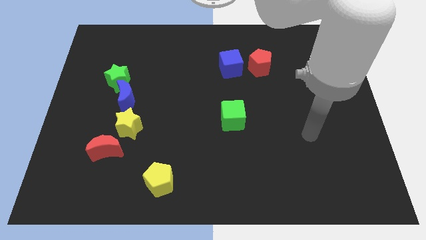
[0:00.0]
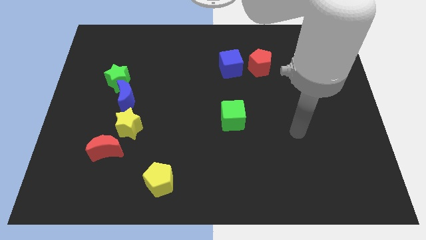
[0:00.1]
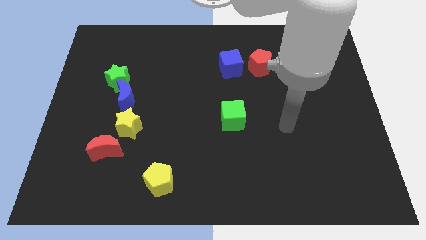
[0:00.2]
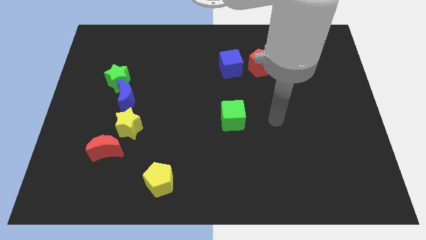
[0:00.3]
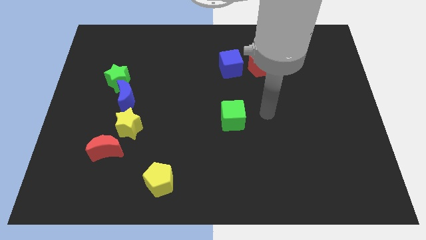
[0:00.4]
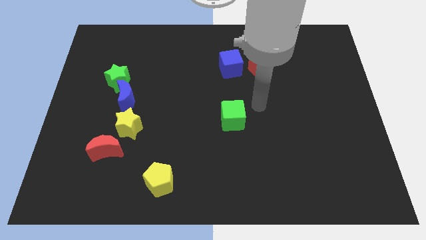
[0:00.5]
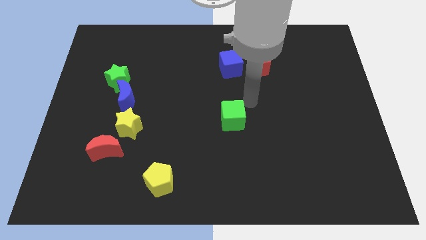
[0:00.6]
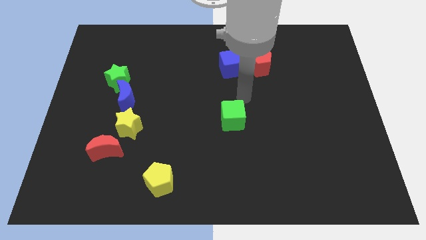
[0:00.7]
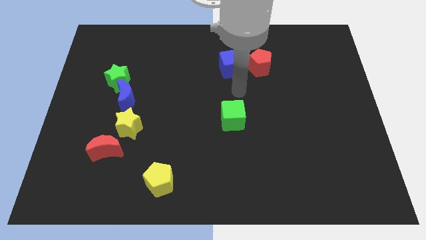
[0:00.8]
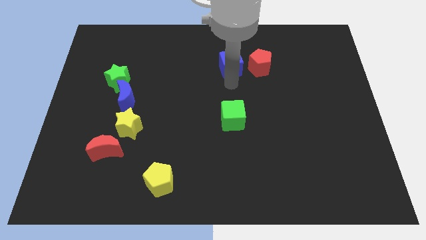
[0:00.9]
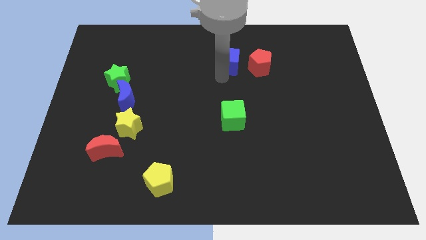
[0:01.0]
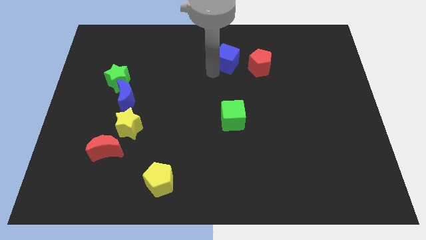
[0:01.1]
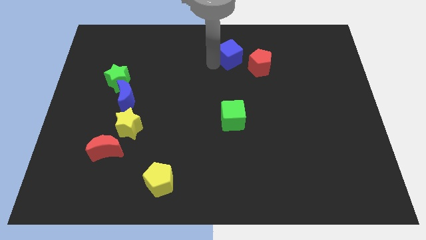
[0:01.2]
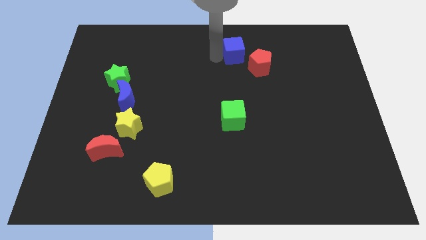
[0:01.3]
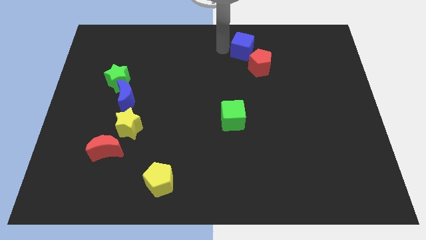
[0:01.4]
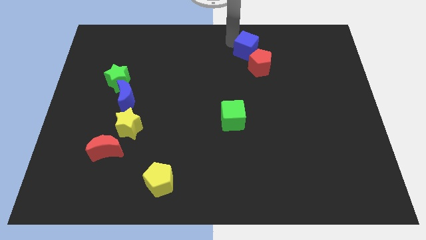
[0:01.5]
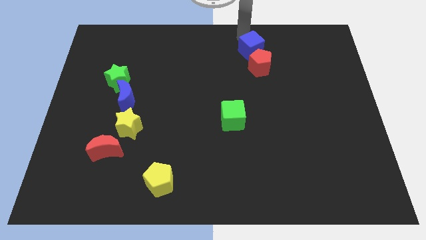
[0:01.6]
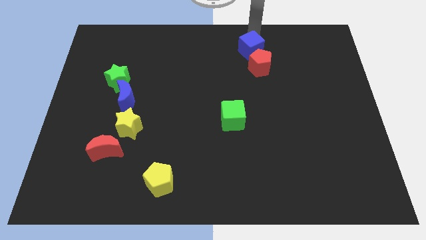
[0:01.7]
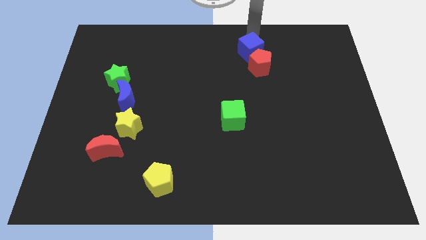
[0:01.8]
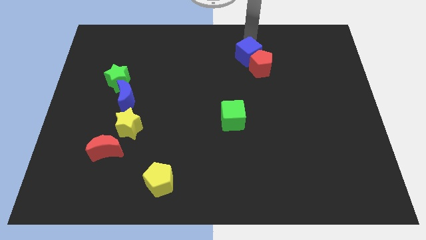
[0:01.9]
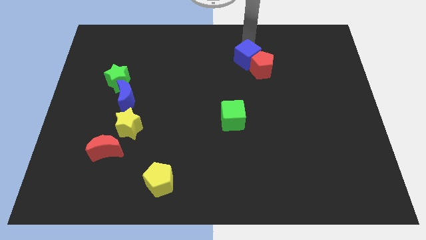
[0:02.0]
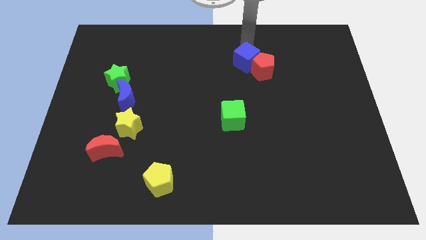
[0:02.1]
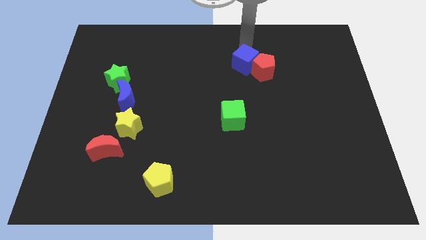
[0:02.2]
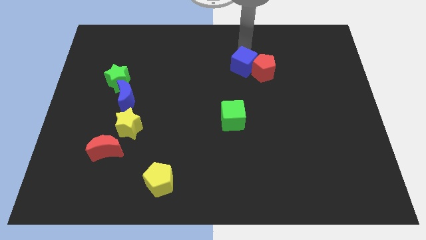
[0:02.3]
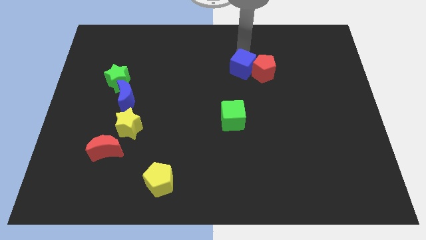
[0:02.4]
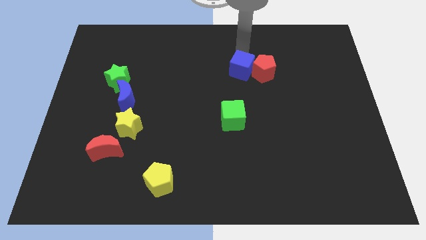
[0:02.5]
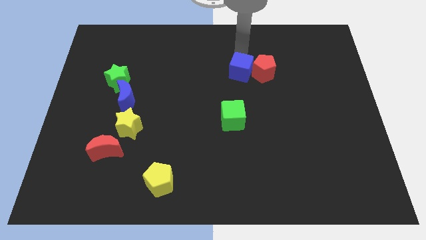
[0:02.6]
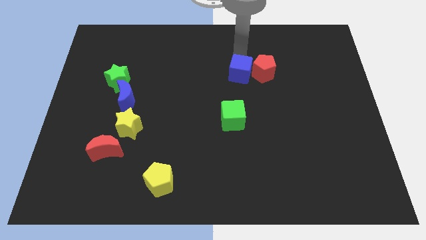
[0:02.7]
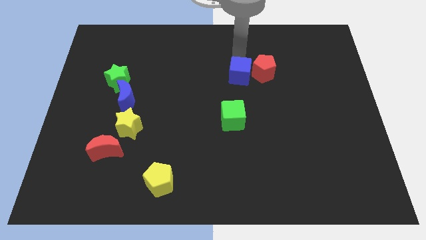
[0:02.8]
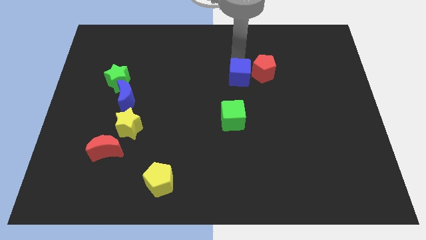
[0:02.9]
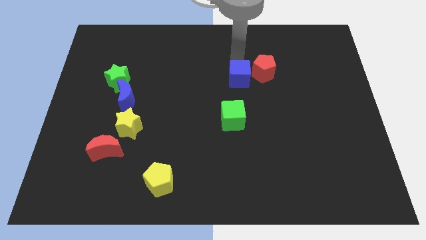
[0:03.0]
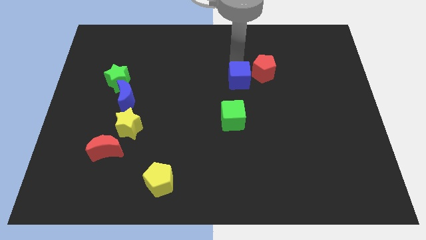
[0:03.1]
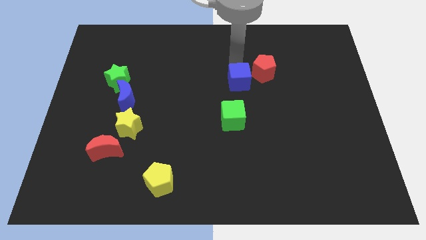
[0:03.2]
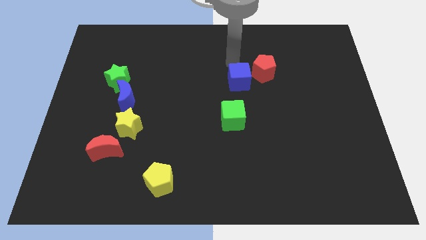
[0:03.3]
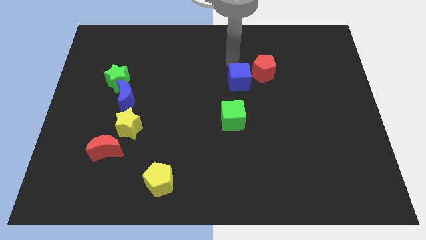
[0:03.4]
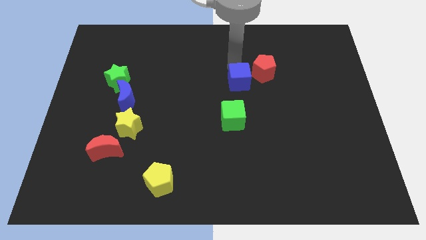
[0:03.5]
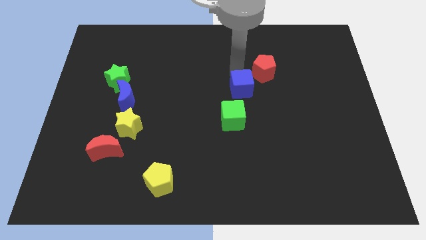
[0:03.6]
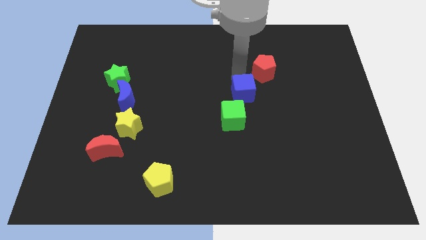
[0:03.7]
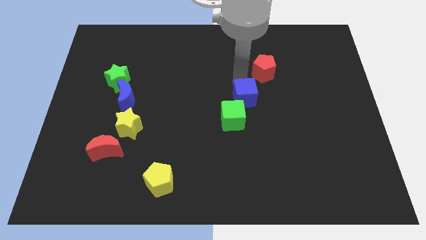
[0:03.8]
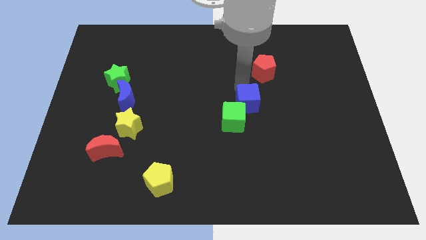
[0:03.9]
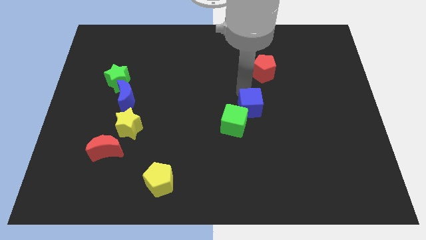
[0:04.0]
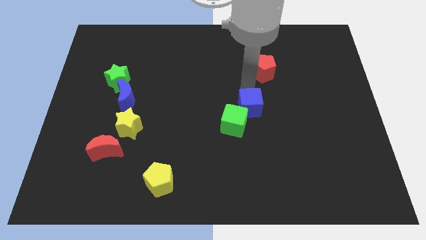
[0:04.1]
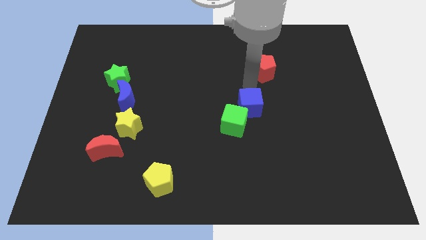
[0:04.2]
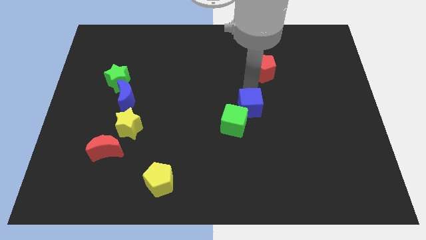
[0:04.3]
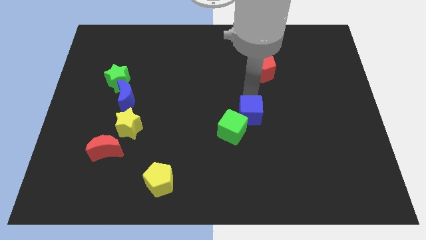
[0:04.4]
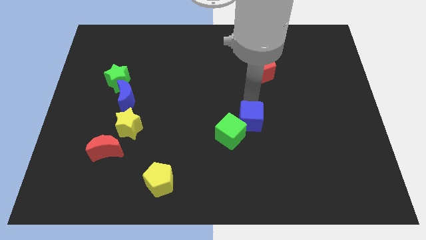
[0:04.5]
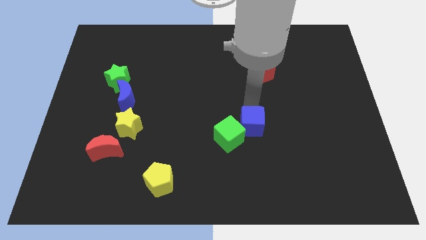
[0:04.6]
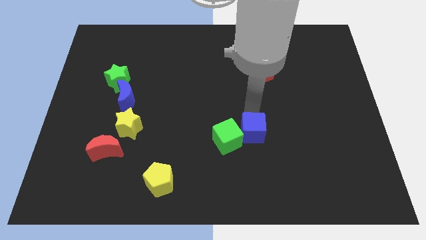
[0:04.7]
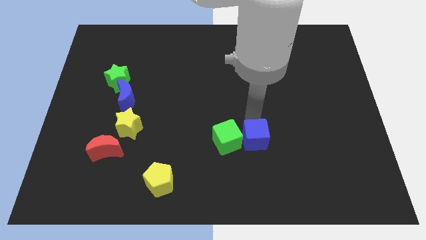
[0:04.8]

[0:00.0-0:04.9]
push the blue cube downwards

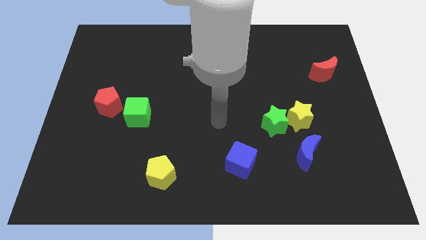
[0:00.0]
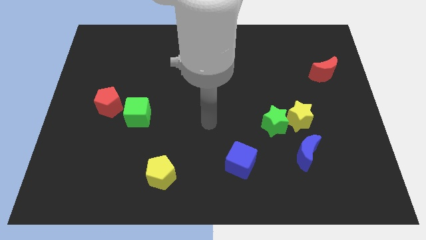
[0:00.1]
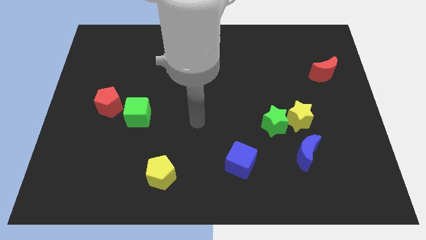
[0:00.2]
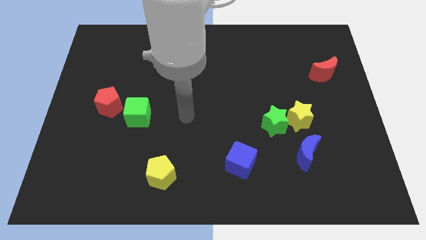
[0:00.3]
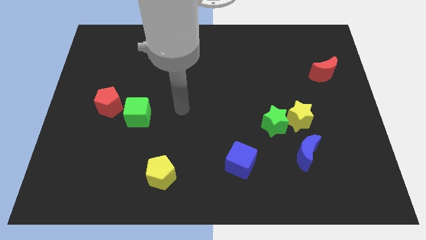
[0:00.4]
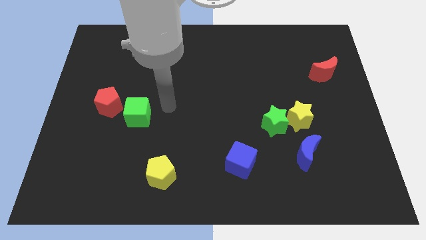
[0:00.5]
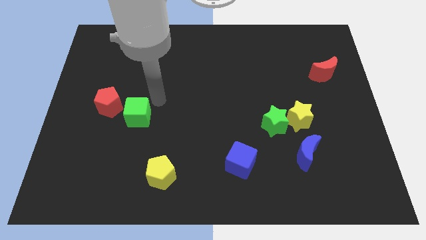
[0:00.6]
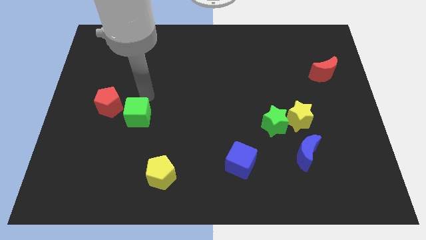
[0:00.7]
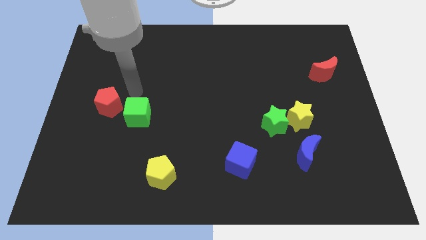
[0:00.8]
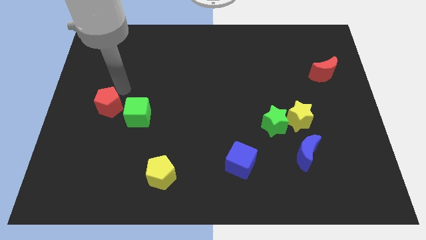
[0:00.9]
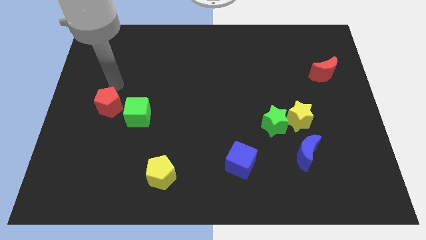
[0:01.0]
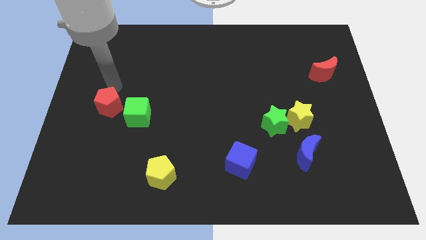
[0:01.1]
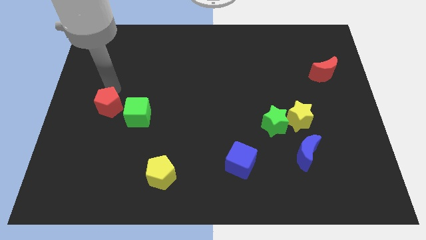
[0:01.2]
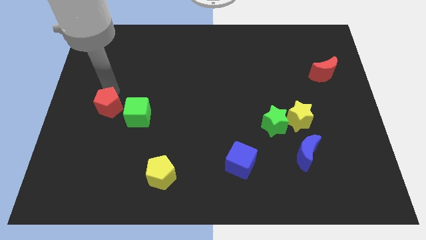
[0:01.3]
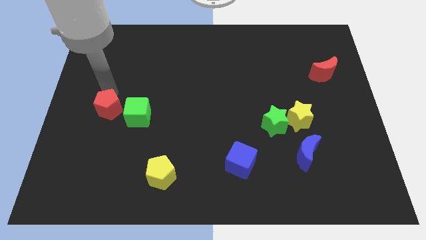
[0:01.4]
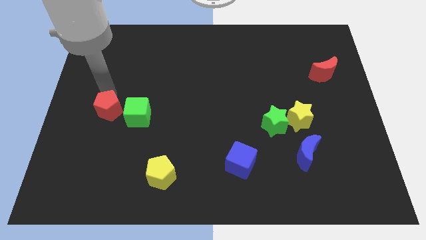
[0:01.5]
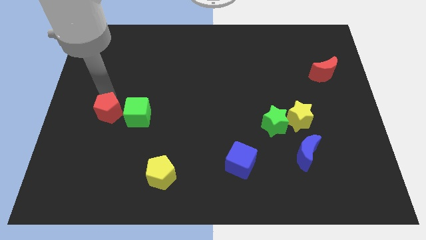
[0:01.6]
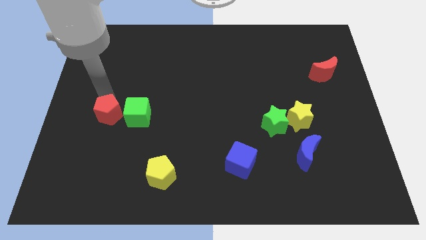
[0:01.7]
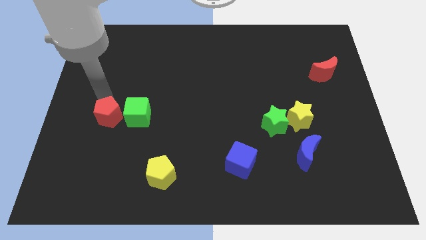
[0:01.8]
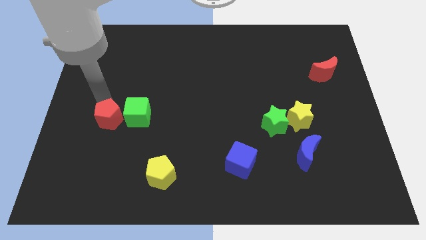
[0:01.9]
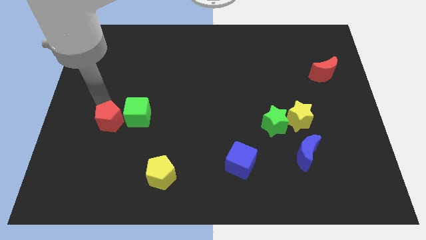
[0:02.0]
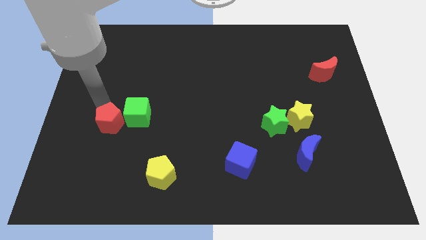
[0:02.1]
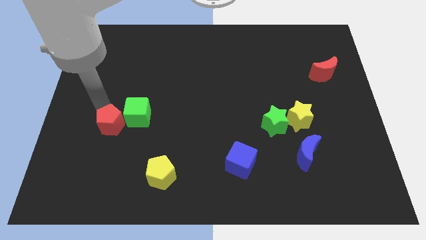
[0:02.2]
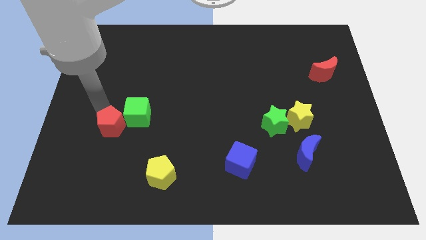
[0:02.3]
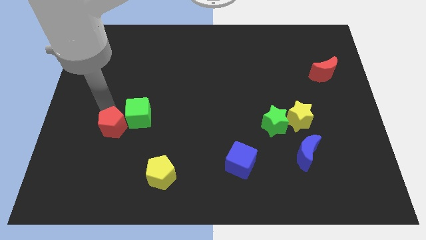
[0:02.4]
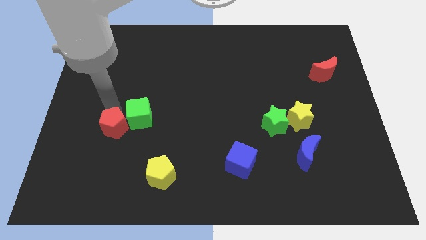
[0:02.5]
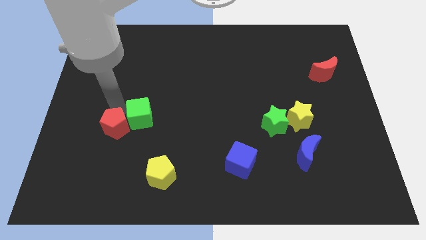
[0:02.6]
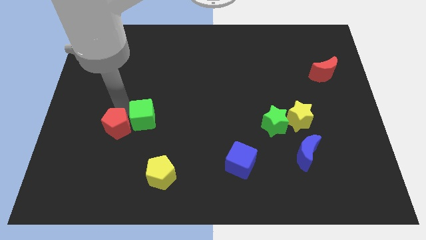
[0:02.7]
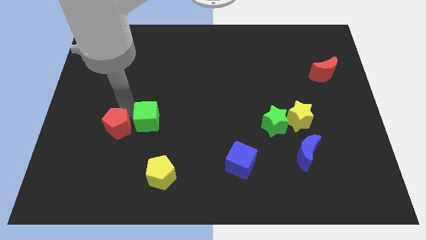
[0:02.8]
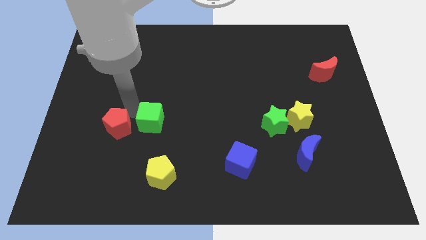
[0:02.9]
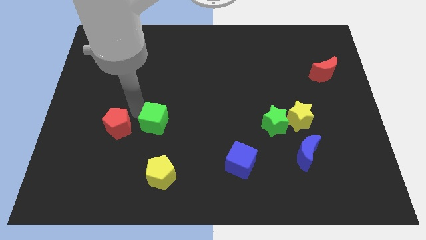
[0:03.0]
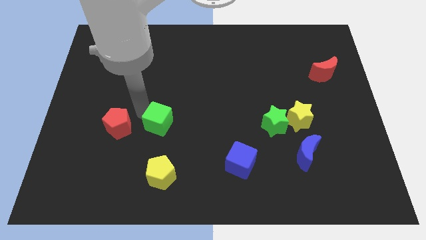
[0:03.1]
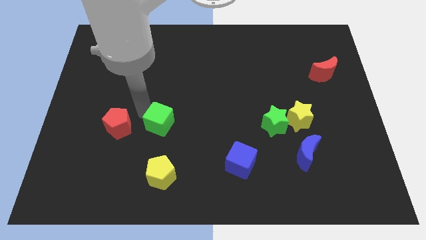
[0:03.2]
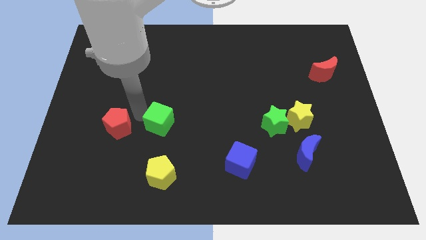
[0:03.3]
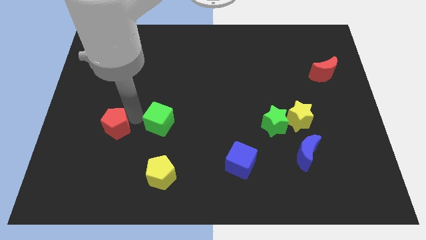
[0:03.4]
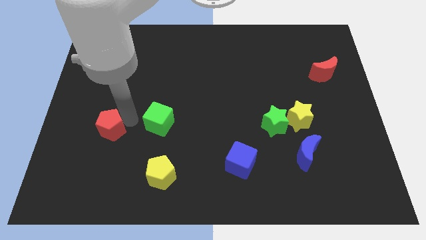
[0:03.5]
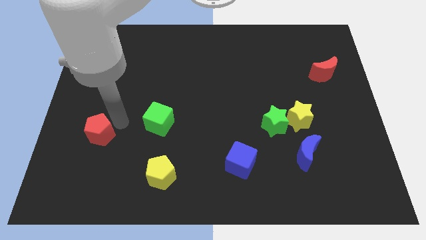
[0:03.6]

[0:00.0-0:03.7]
slightly push the red pentagon downwards
